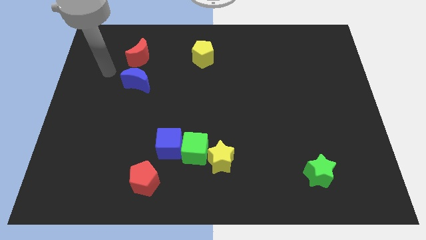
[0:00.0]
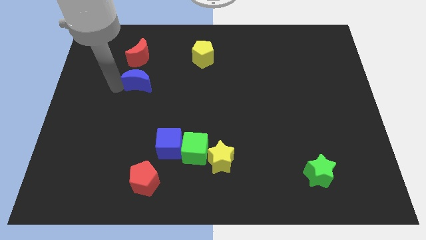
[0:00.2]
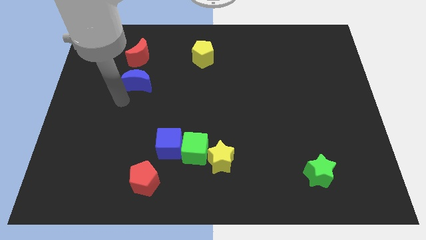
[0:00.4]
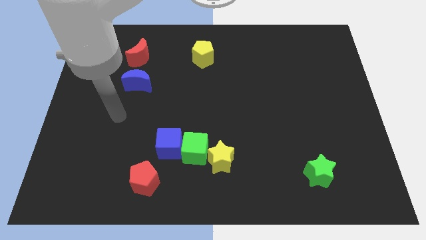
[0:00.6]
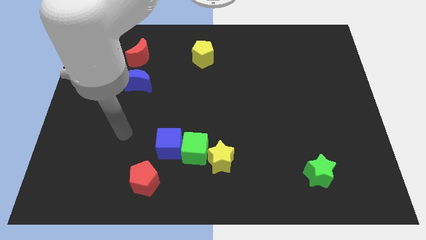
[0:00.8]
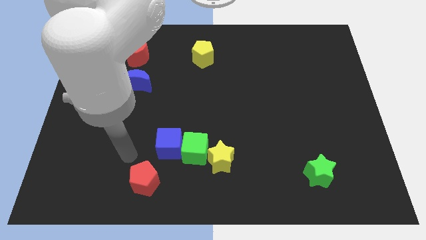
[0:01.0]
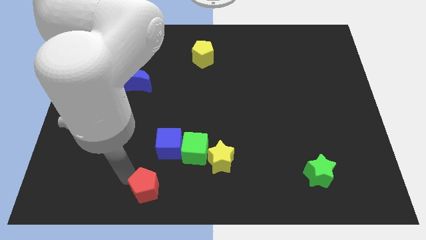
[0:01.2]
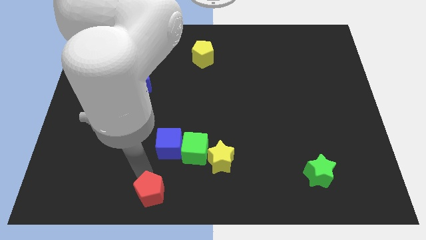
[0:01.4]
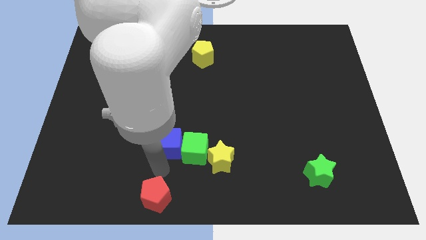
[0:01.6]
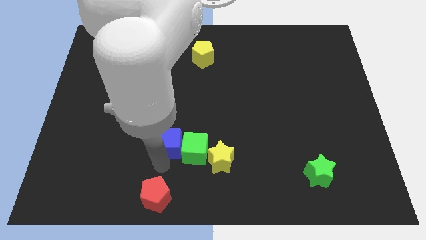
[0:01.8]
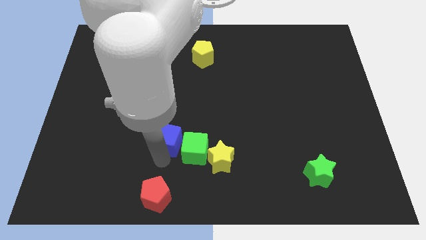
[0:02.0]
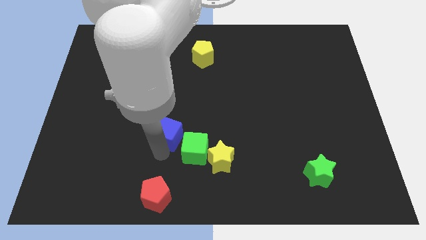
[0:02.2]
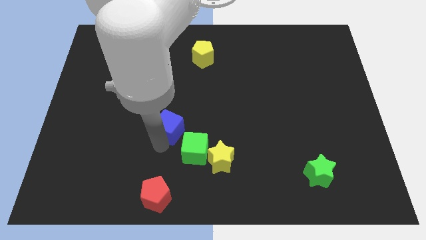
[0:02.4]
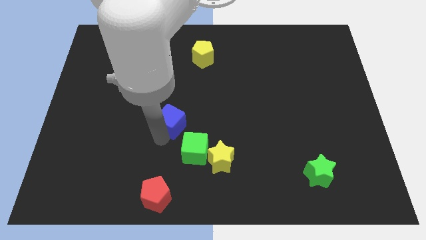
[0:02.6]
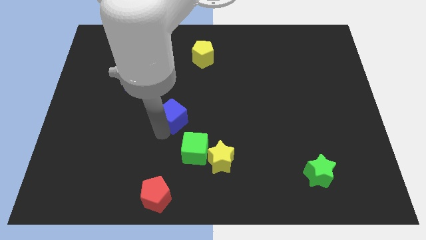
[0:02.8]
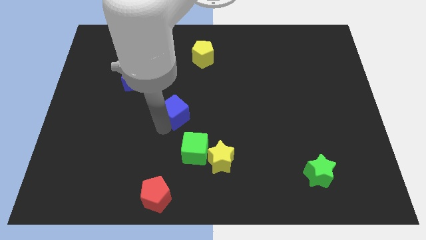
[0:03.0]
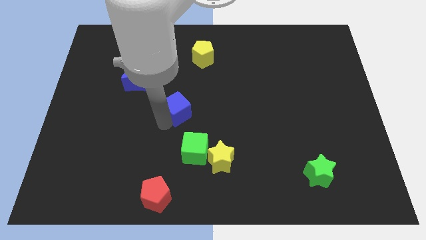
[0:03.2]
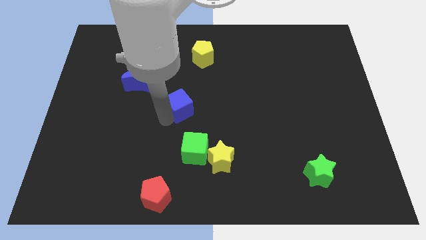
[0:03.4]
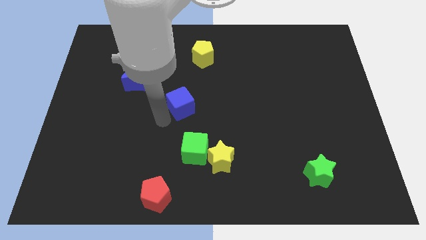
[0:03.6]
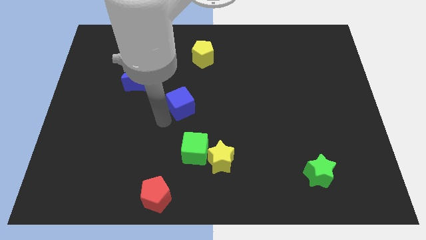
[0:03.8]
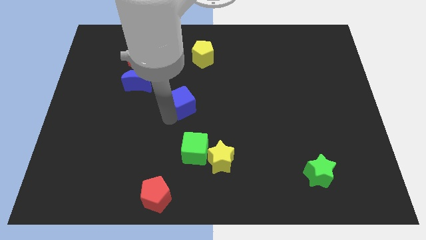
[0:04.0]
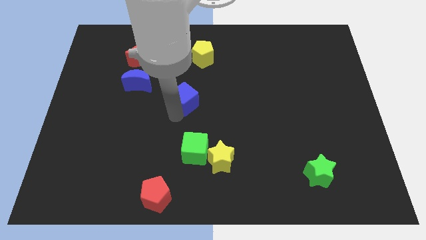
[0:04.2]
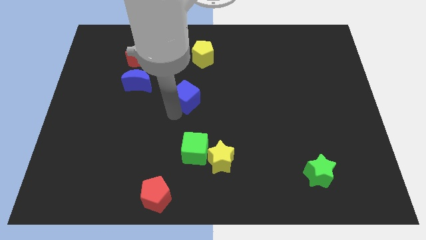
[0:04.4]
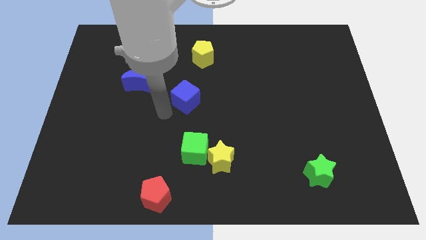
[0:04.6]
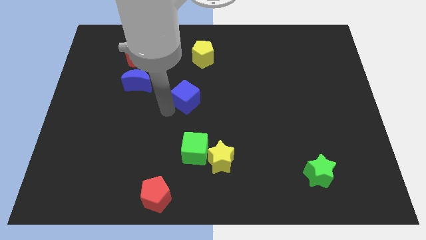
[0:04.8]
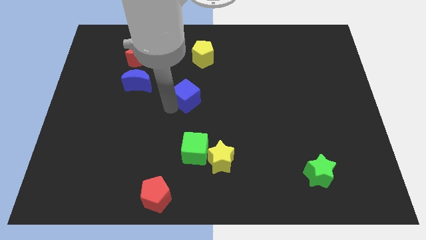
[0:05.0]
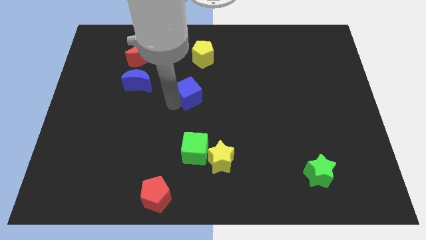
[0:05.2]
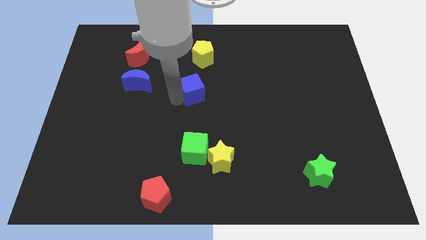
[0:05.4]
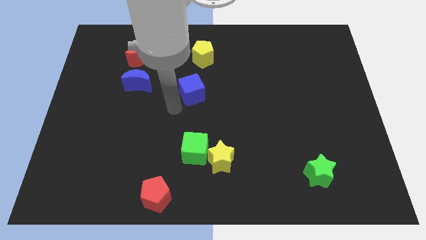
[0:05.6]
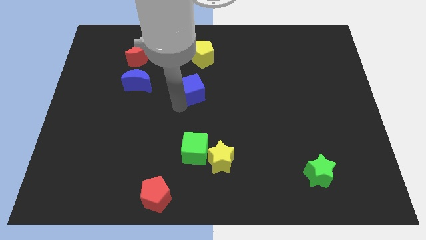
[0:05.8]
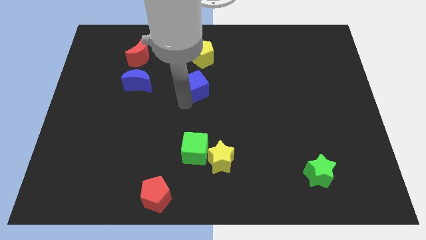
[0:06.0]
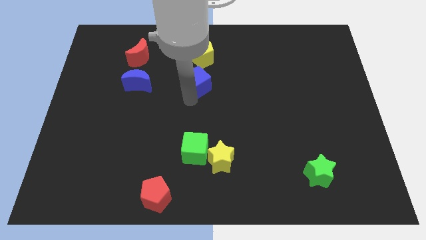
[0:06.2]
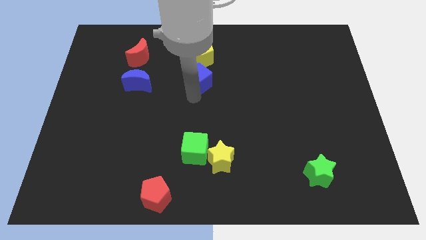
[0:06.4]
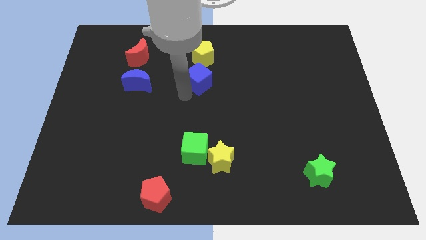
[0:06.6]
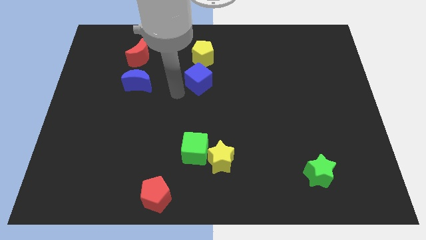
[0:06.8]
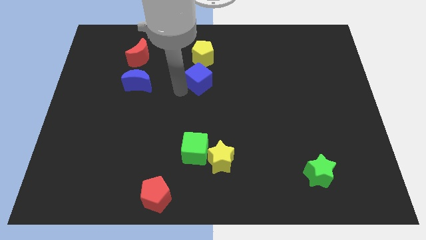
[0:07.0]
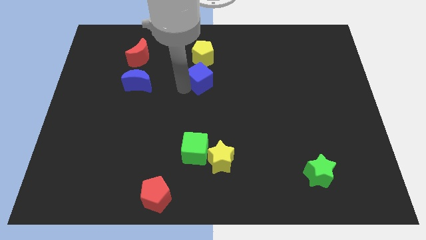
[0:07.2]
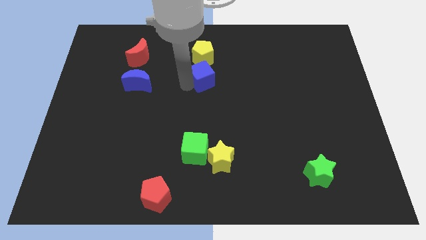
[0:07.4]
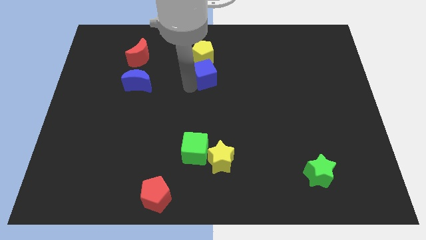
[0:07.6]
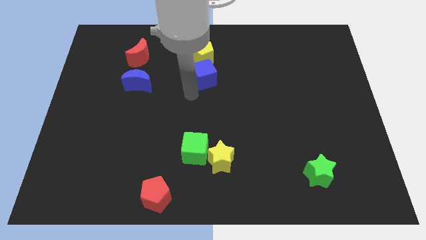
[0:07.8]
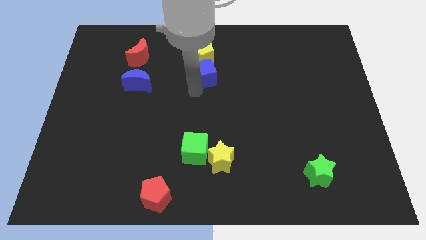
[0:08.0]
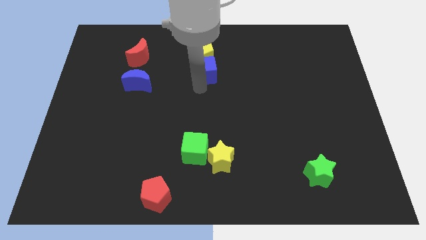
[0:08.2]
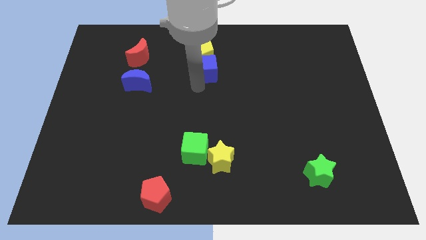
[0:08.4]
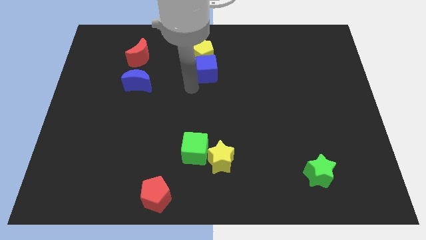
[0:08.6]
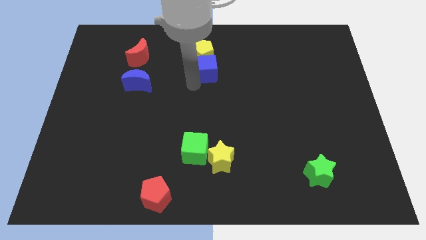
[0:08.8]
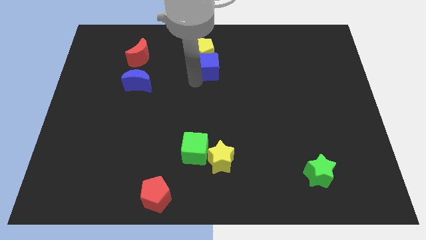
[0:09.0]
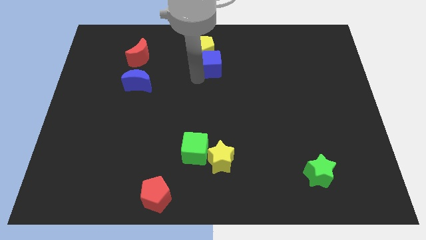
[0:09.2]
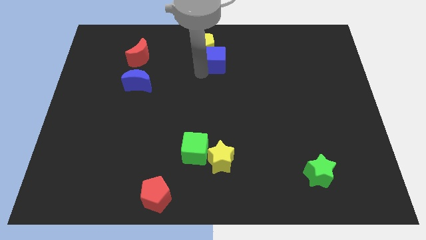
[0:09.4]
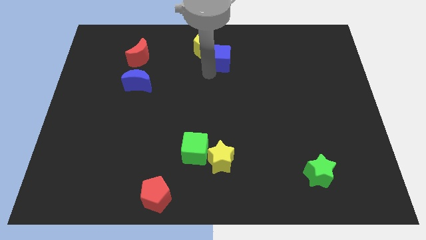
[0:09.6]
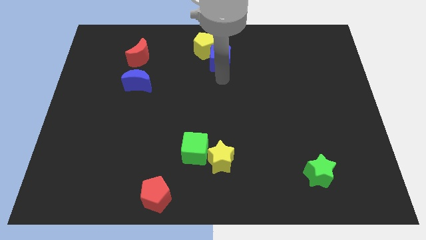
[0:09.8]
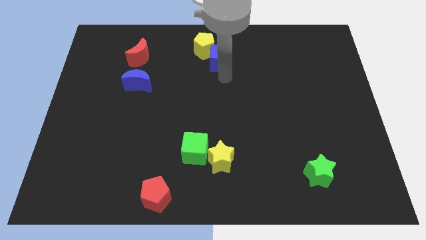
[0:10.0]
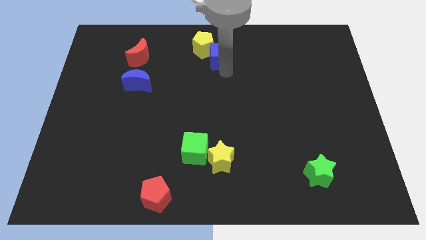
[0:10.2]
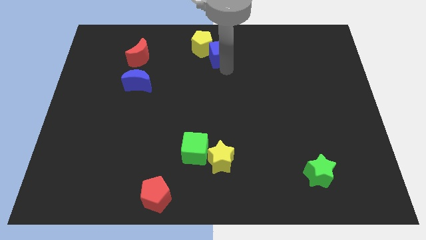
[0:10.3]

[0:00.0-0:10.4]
slide the blue cube to the top

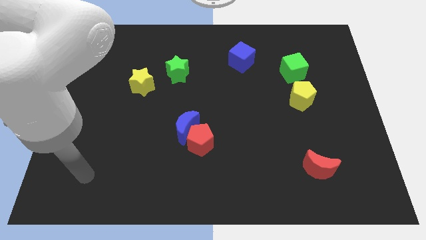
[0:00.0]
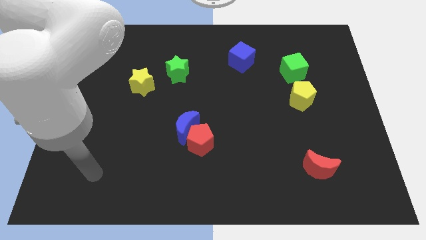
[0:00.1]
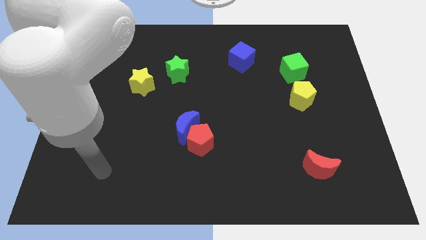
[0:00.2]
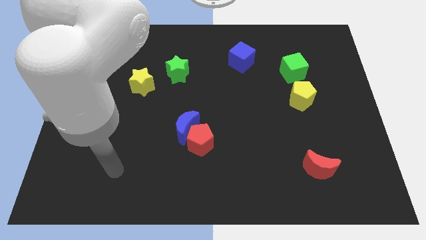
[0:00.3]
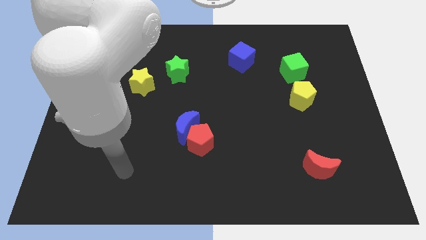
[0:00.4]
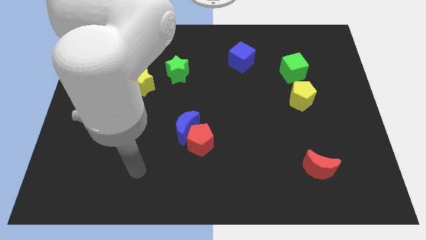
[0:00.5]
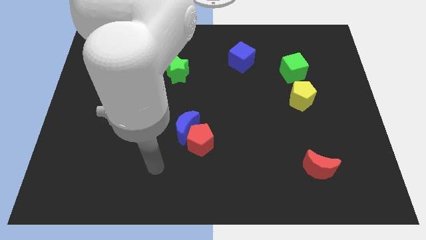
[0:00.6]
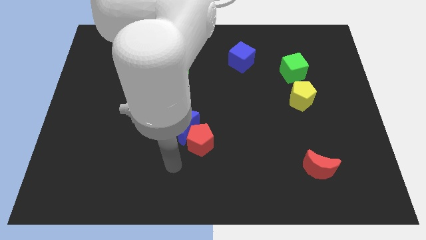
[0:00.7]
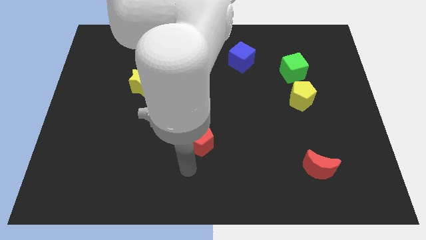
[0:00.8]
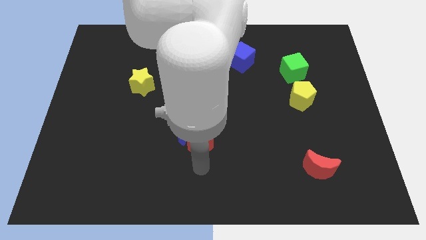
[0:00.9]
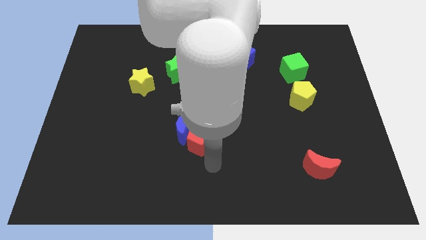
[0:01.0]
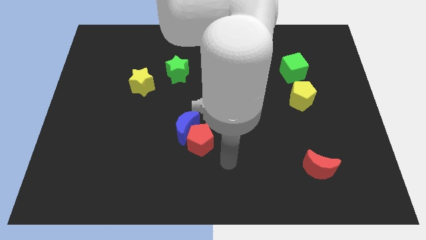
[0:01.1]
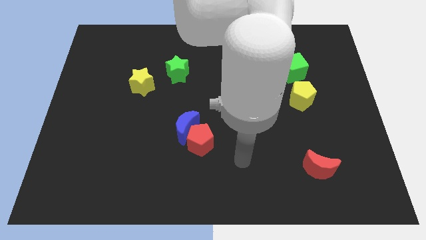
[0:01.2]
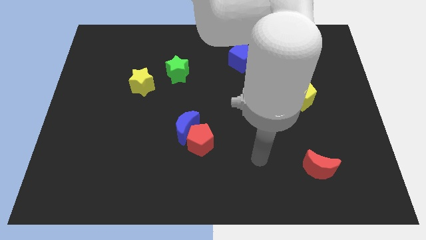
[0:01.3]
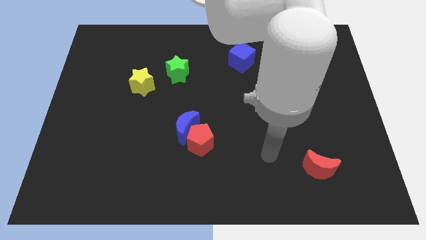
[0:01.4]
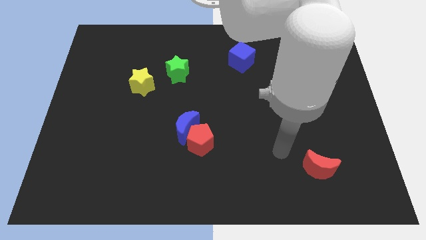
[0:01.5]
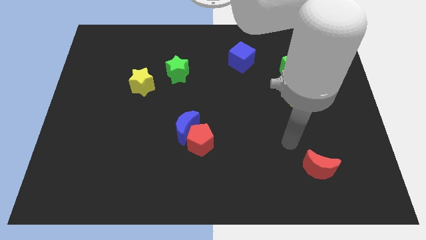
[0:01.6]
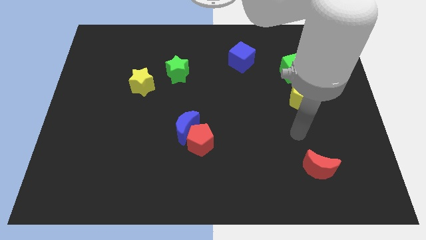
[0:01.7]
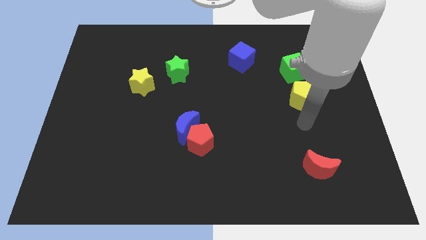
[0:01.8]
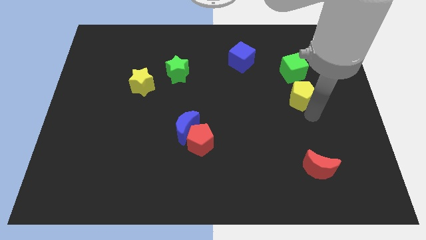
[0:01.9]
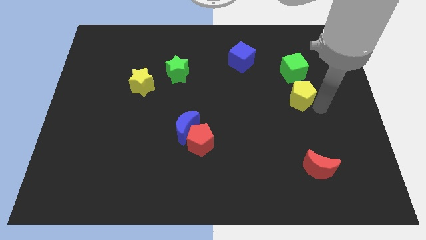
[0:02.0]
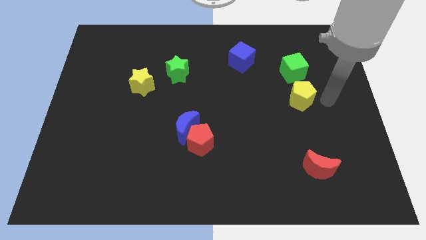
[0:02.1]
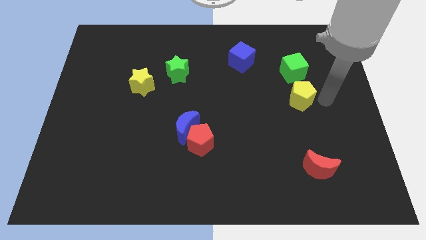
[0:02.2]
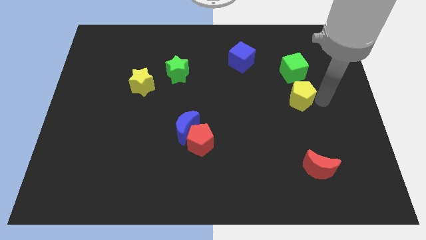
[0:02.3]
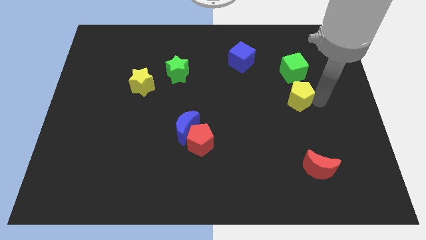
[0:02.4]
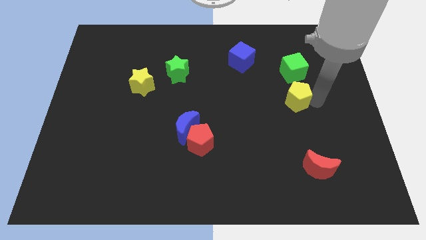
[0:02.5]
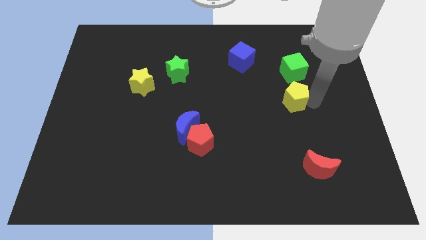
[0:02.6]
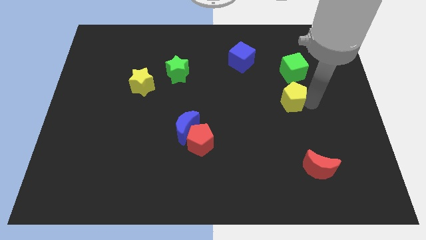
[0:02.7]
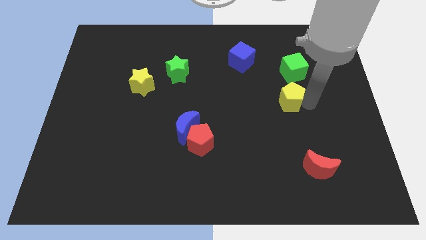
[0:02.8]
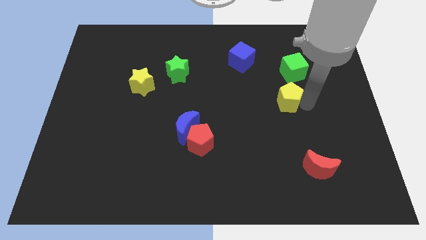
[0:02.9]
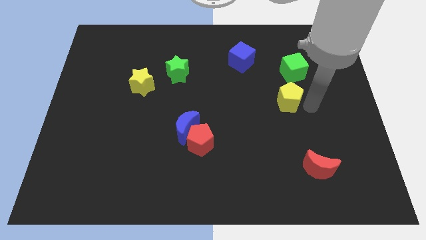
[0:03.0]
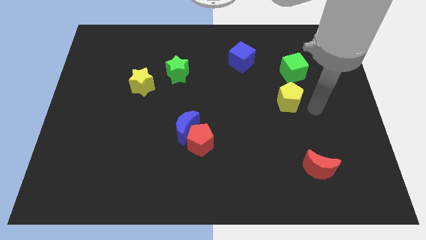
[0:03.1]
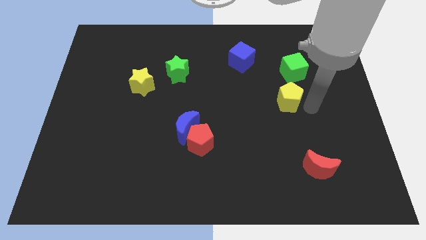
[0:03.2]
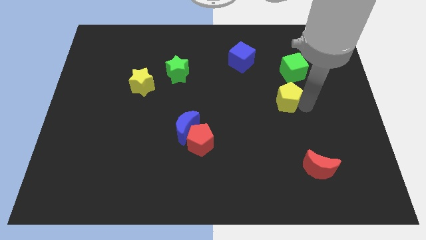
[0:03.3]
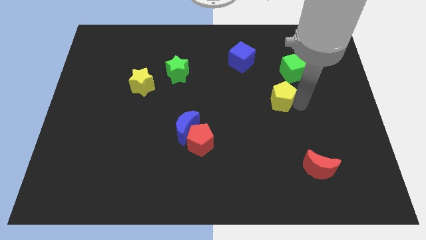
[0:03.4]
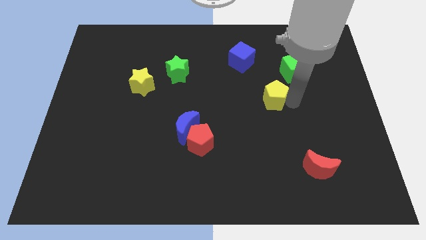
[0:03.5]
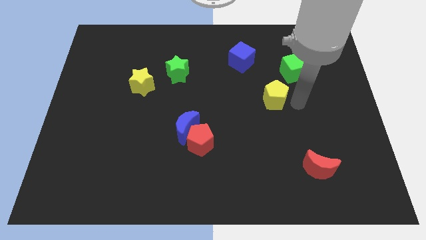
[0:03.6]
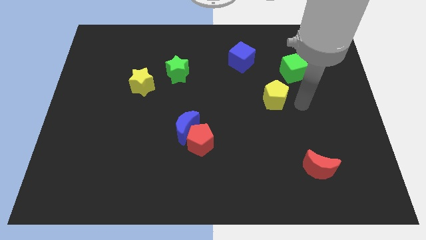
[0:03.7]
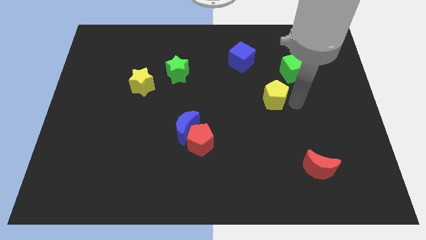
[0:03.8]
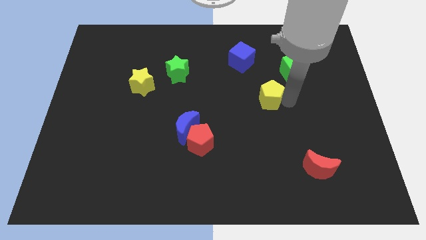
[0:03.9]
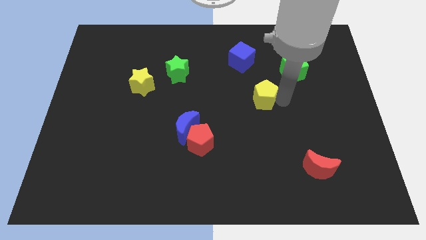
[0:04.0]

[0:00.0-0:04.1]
move the yellow pentagon to the center
